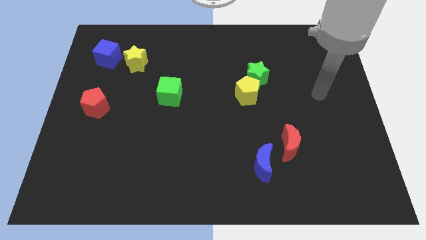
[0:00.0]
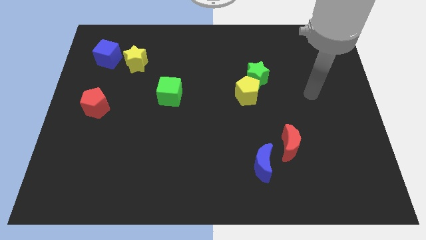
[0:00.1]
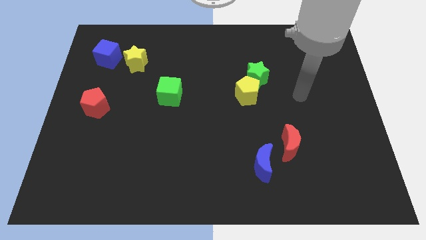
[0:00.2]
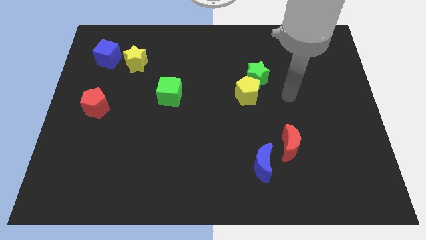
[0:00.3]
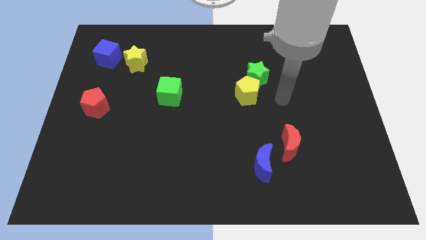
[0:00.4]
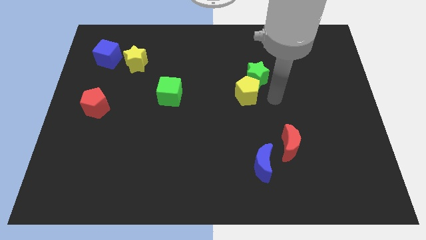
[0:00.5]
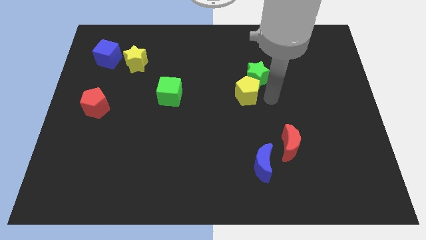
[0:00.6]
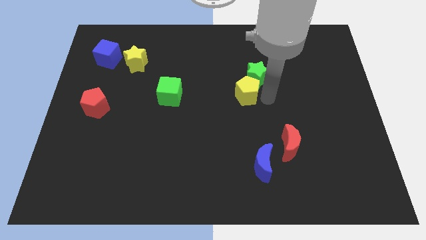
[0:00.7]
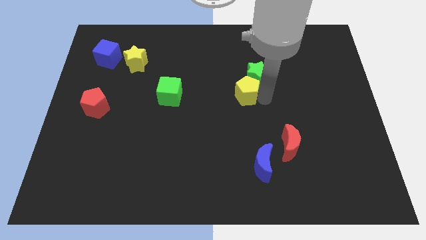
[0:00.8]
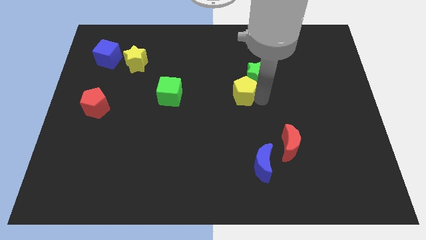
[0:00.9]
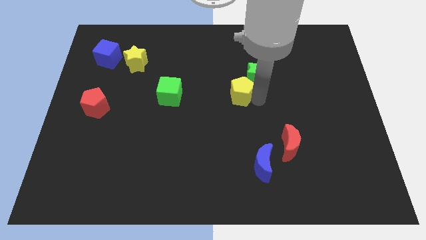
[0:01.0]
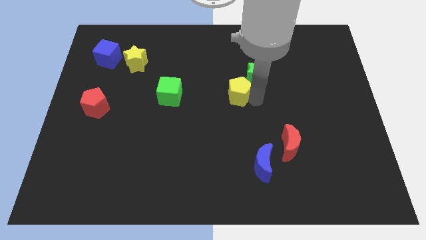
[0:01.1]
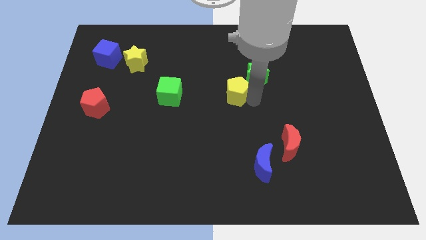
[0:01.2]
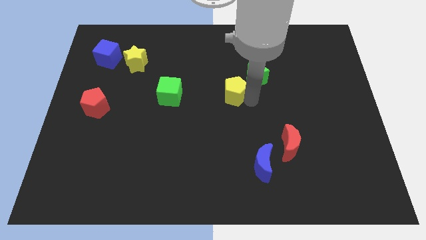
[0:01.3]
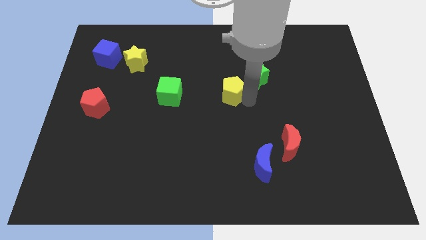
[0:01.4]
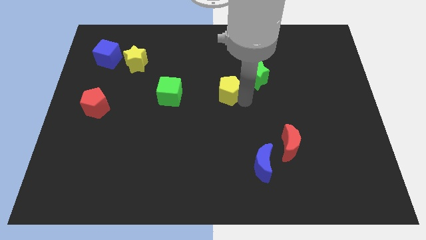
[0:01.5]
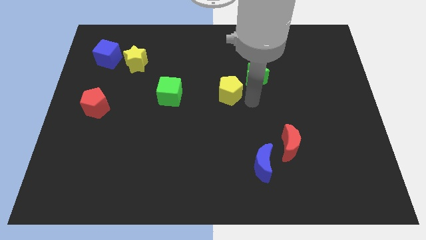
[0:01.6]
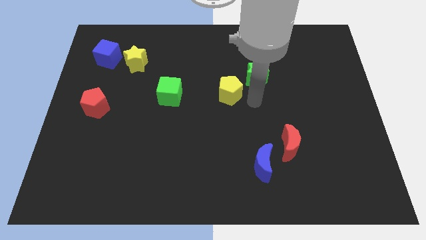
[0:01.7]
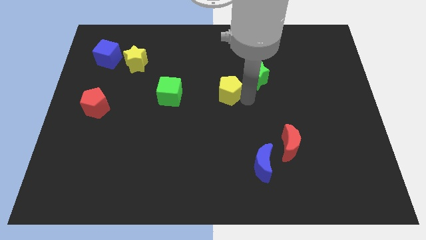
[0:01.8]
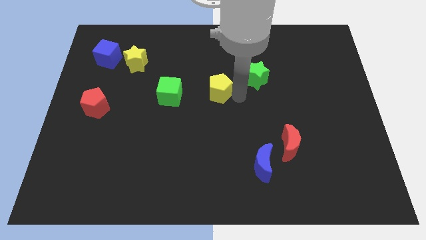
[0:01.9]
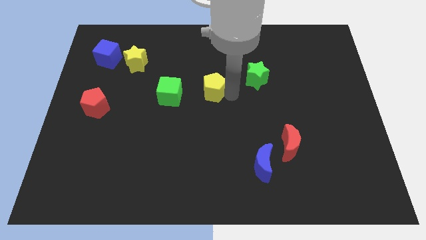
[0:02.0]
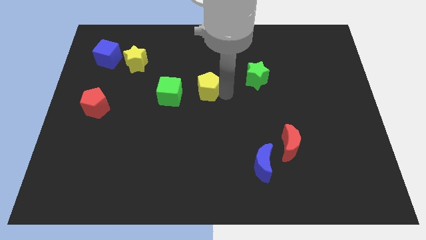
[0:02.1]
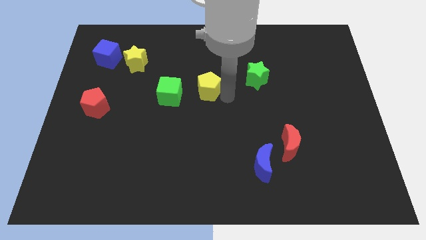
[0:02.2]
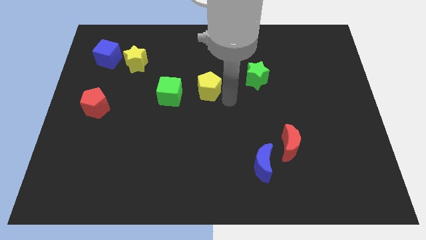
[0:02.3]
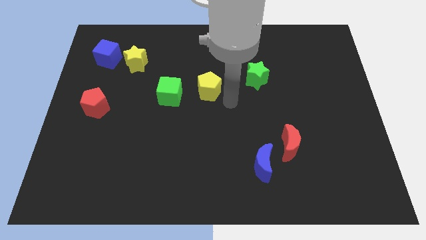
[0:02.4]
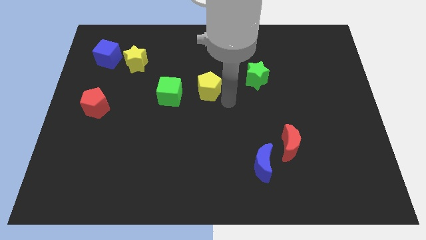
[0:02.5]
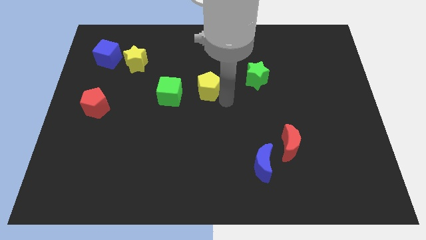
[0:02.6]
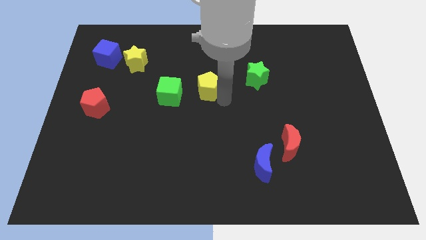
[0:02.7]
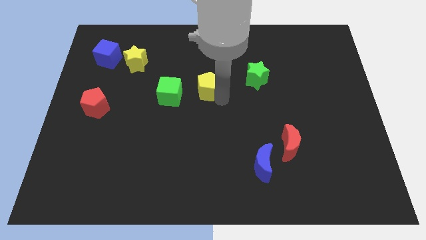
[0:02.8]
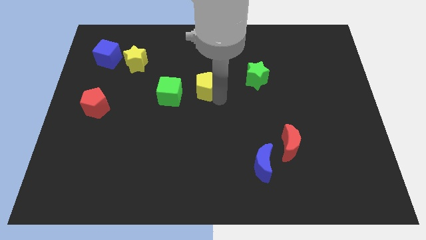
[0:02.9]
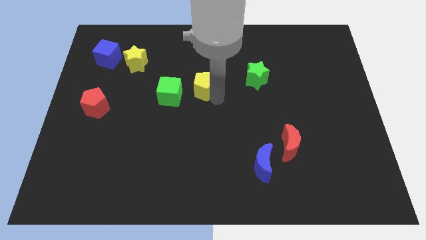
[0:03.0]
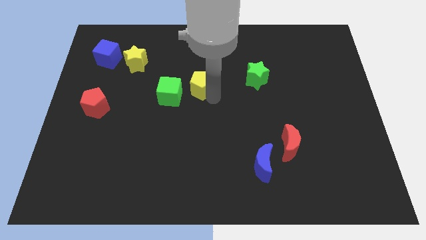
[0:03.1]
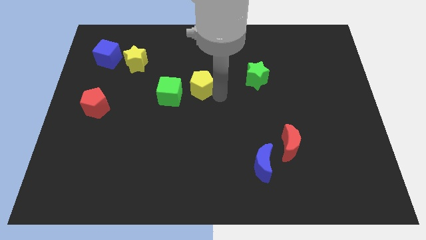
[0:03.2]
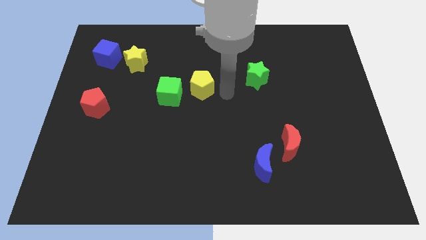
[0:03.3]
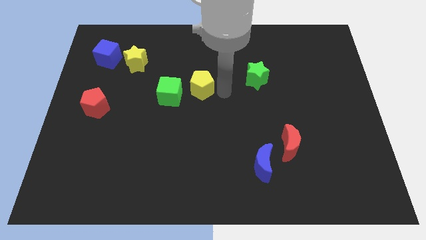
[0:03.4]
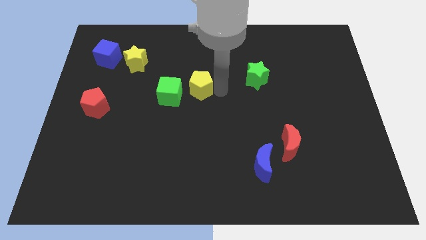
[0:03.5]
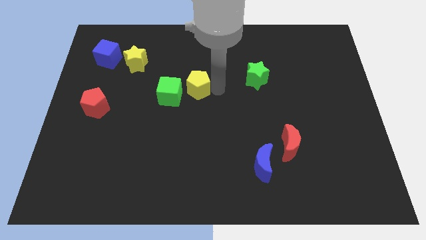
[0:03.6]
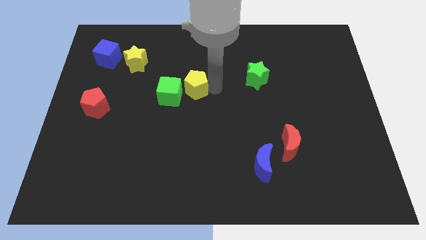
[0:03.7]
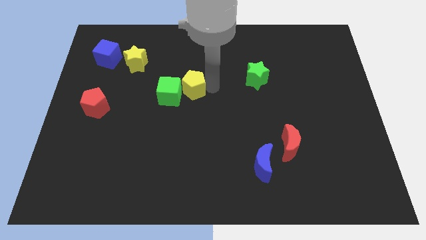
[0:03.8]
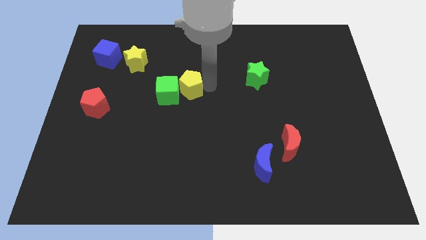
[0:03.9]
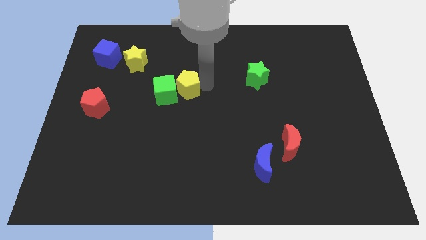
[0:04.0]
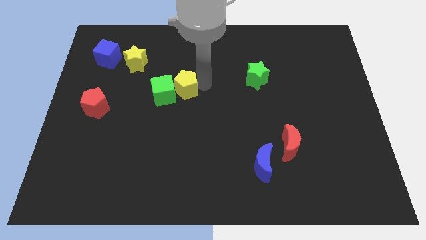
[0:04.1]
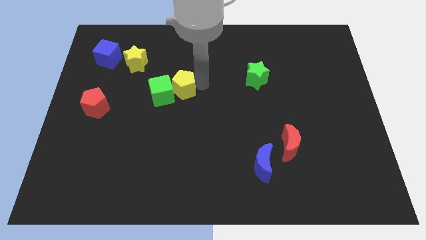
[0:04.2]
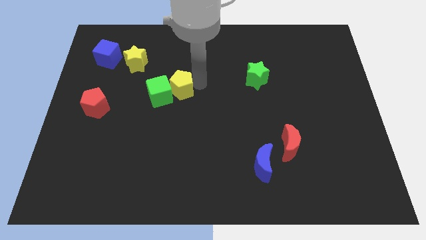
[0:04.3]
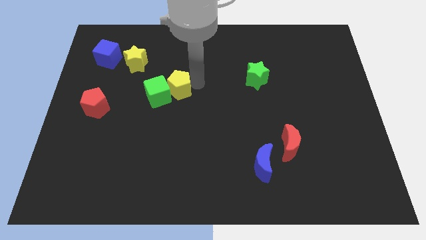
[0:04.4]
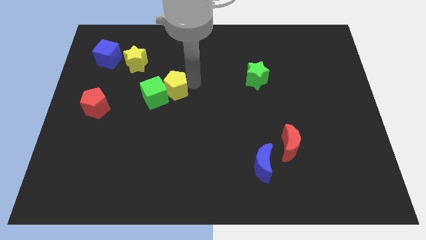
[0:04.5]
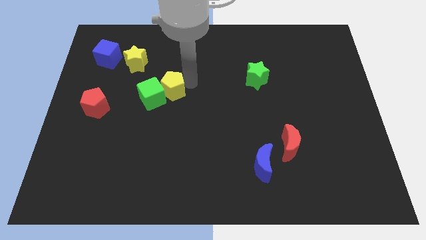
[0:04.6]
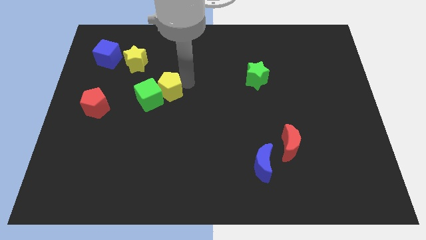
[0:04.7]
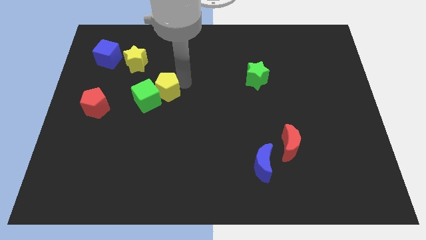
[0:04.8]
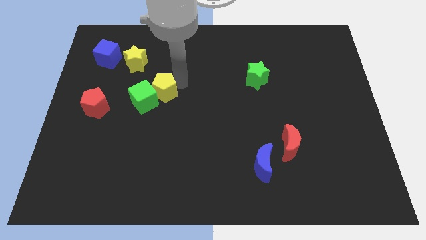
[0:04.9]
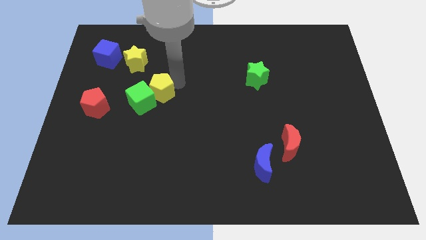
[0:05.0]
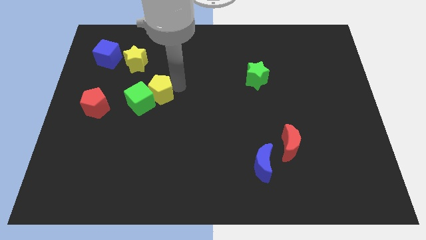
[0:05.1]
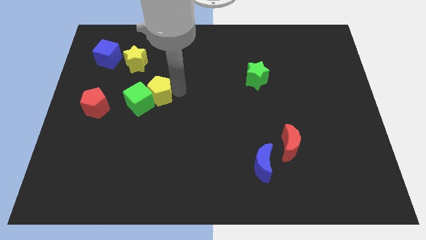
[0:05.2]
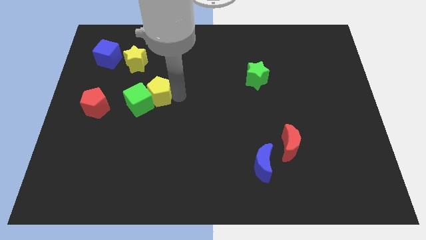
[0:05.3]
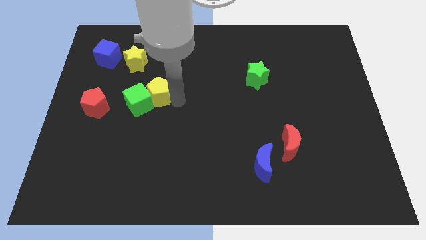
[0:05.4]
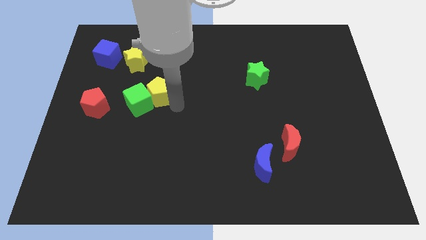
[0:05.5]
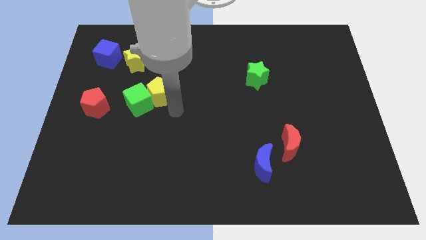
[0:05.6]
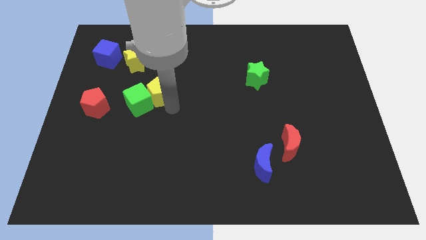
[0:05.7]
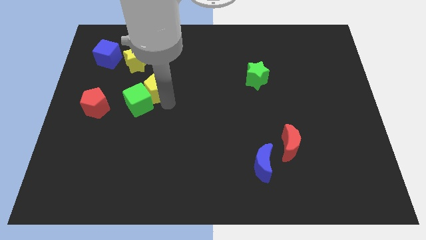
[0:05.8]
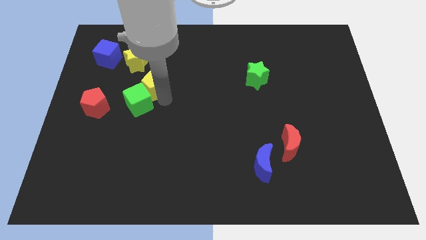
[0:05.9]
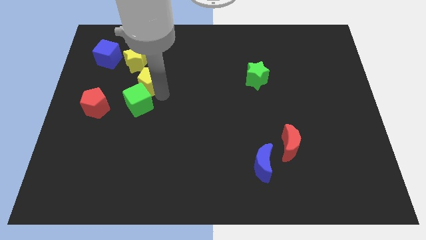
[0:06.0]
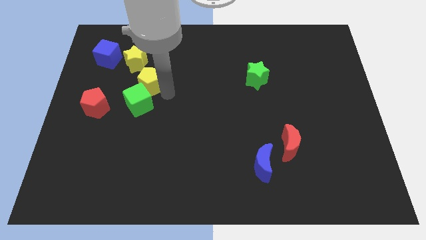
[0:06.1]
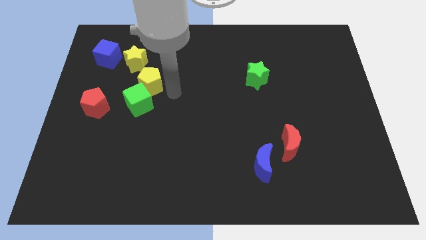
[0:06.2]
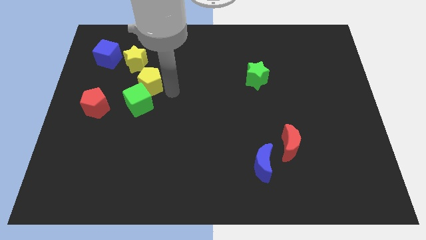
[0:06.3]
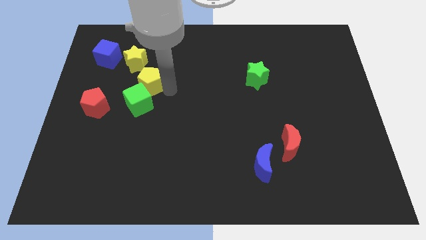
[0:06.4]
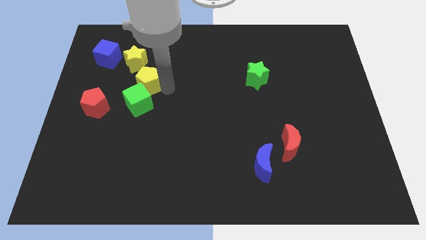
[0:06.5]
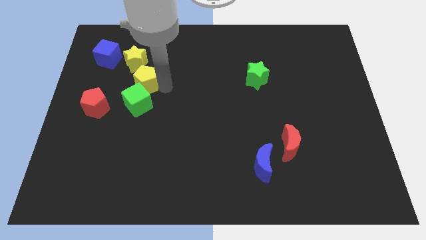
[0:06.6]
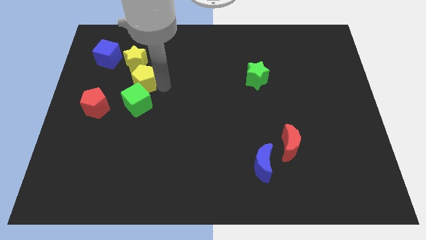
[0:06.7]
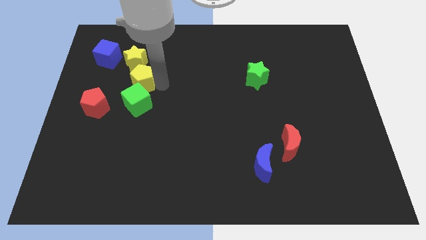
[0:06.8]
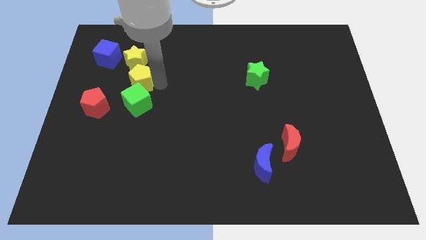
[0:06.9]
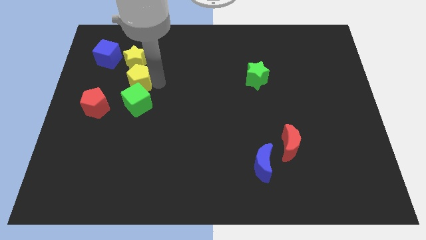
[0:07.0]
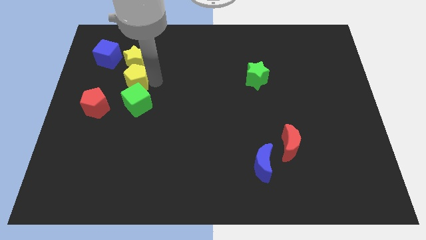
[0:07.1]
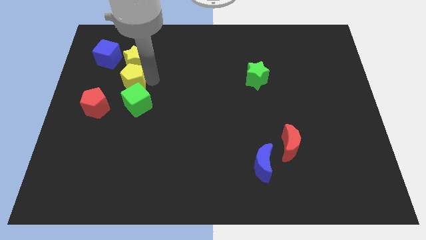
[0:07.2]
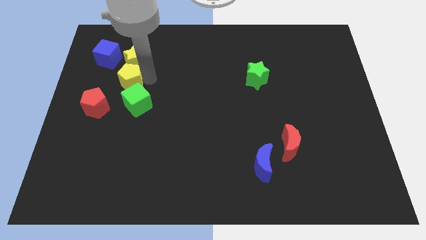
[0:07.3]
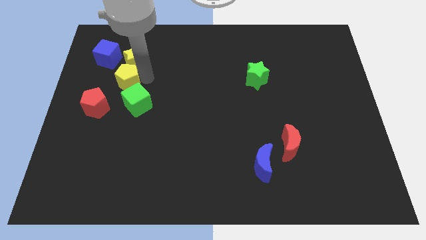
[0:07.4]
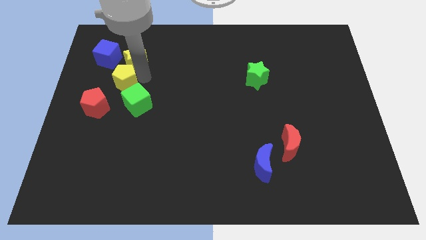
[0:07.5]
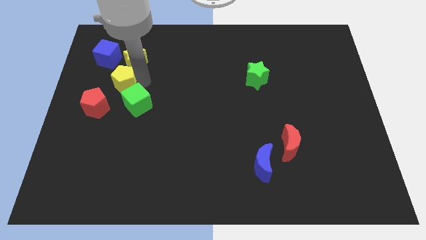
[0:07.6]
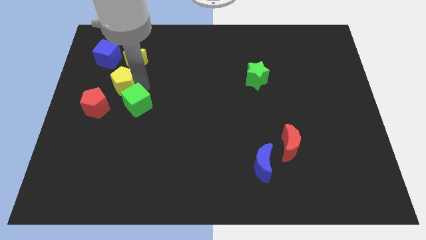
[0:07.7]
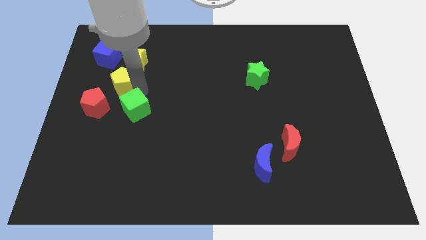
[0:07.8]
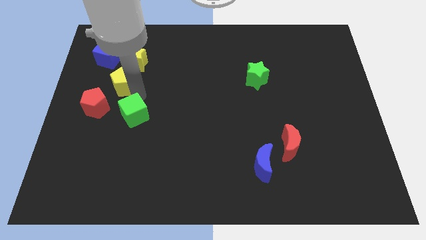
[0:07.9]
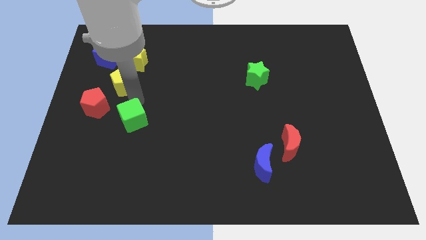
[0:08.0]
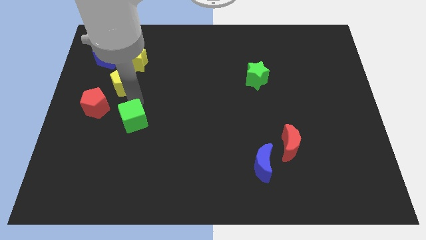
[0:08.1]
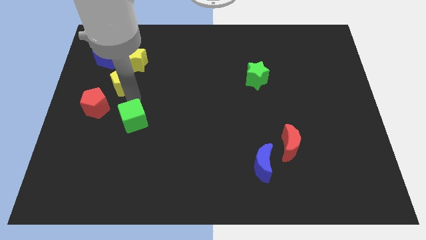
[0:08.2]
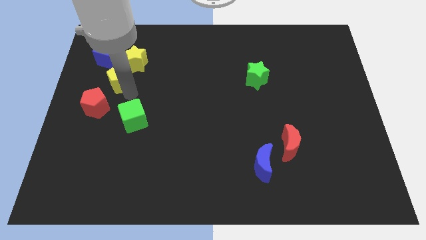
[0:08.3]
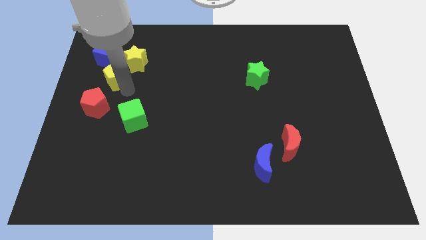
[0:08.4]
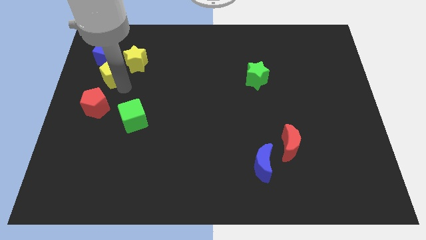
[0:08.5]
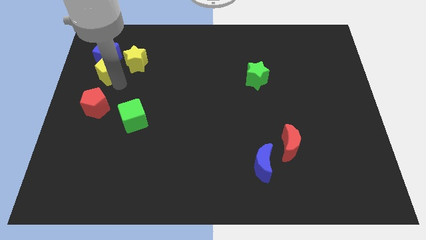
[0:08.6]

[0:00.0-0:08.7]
push the yellow pentagon to the blue cube
